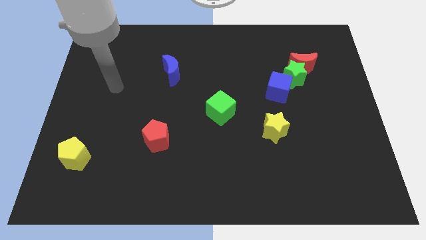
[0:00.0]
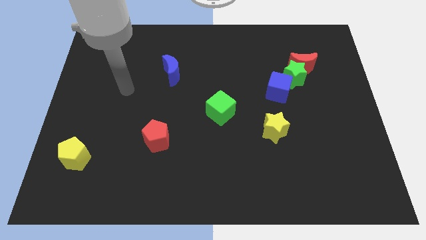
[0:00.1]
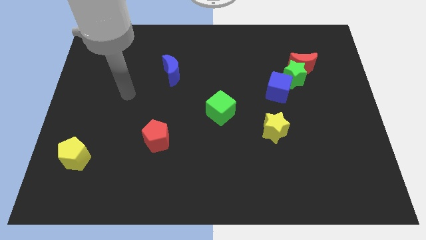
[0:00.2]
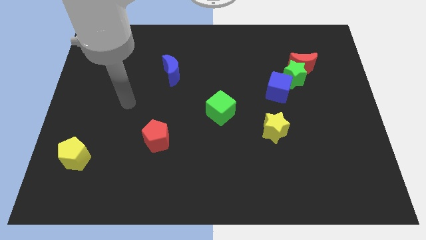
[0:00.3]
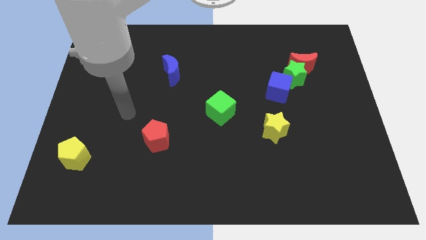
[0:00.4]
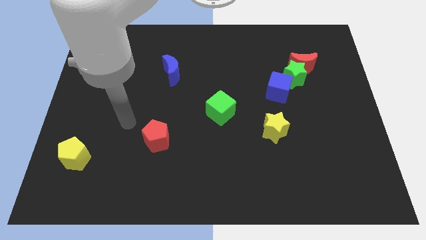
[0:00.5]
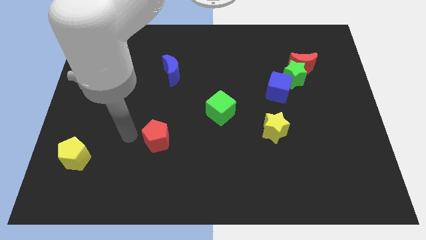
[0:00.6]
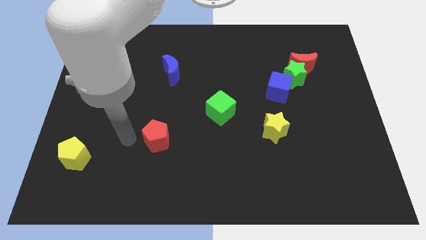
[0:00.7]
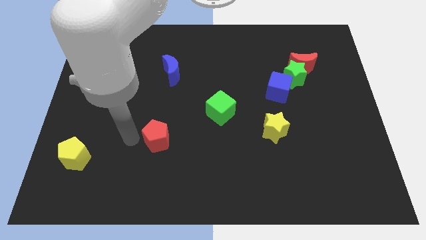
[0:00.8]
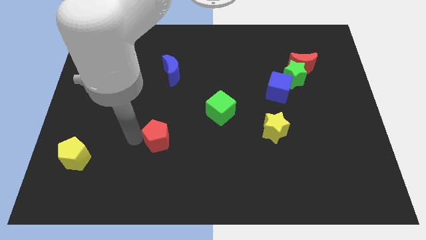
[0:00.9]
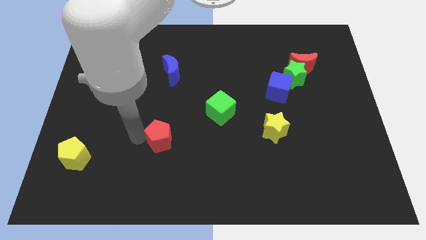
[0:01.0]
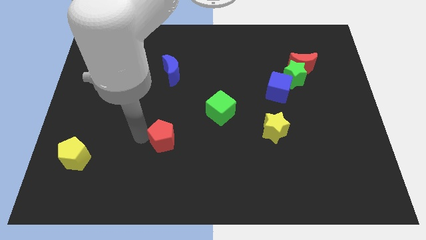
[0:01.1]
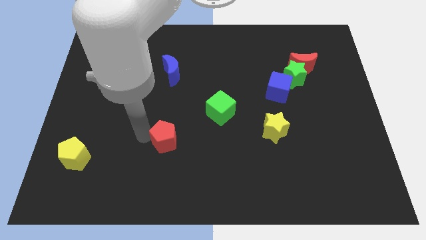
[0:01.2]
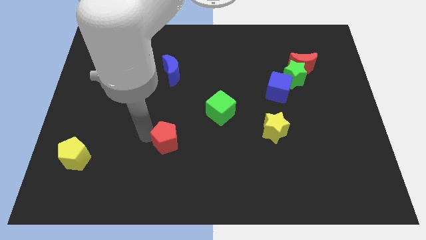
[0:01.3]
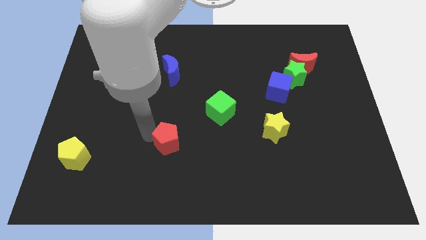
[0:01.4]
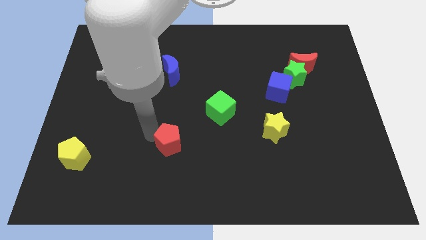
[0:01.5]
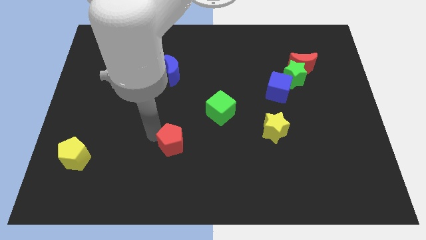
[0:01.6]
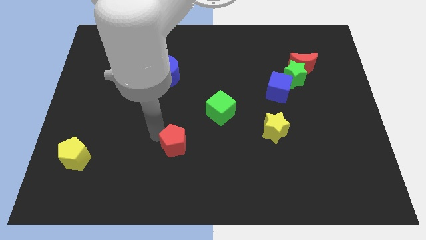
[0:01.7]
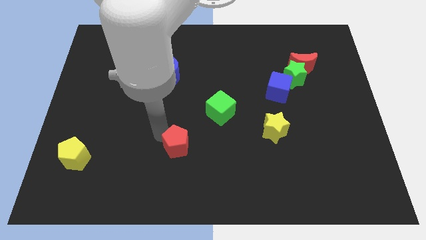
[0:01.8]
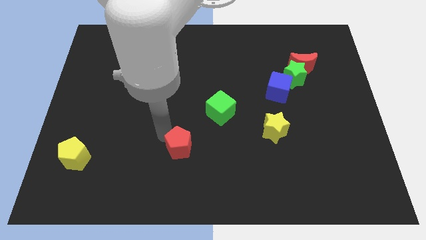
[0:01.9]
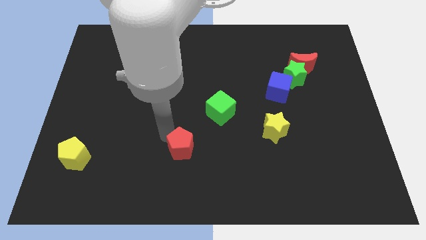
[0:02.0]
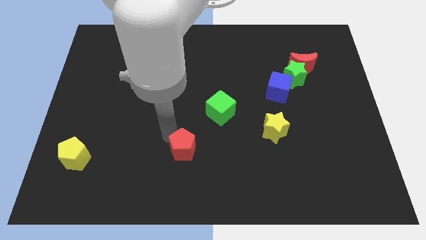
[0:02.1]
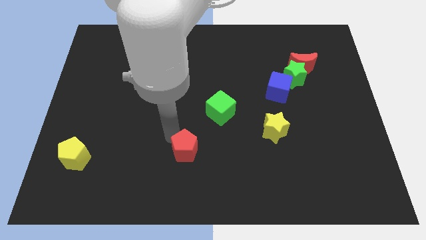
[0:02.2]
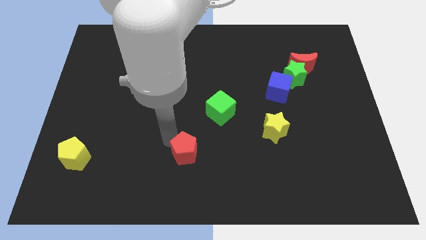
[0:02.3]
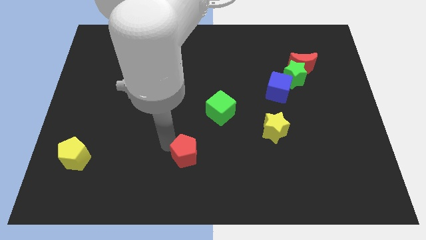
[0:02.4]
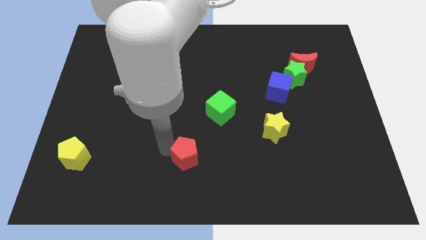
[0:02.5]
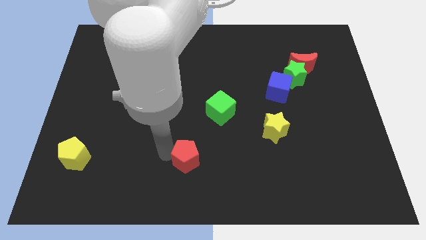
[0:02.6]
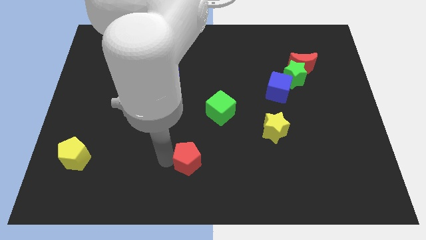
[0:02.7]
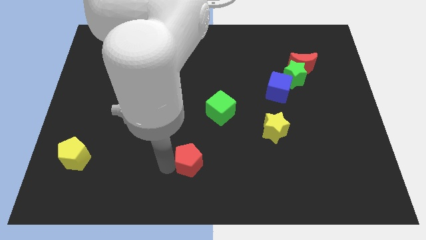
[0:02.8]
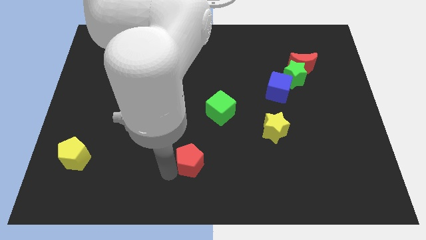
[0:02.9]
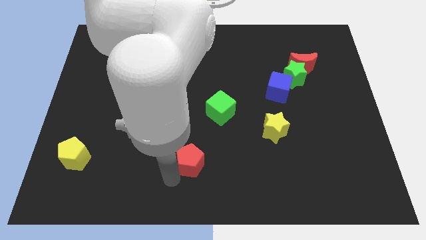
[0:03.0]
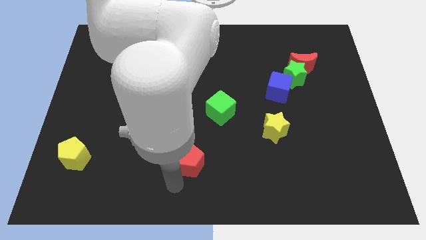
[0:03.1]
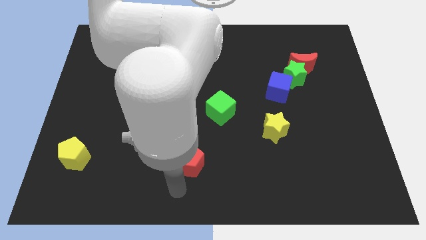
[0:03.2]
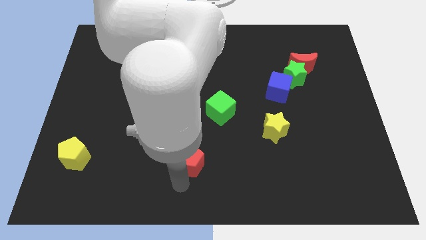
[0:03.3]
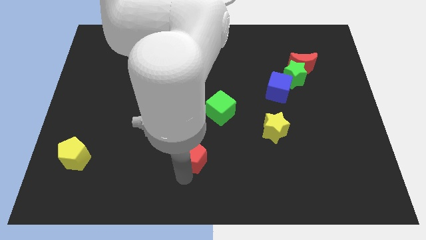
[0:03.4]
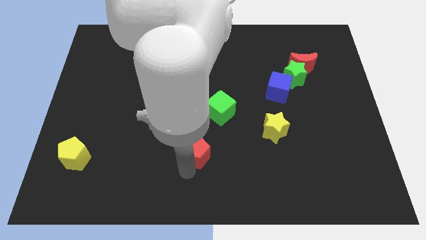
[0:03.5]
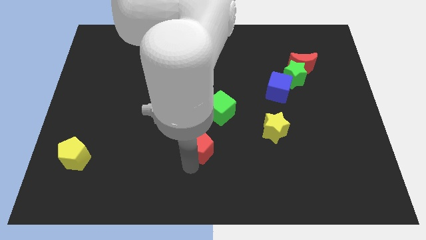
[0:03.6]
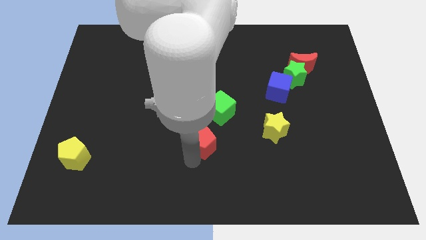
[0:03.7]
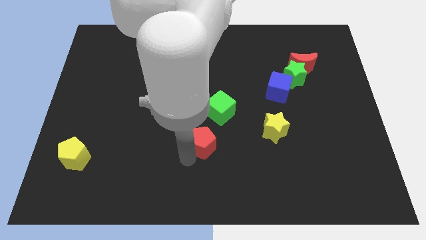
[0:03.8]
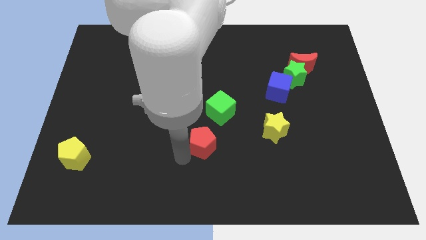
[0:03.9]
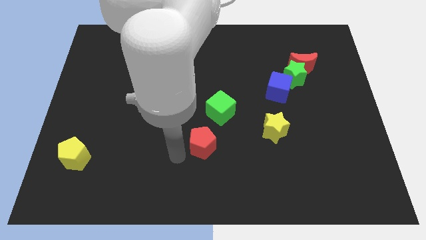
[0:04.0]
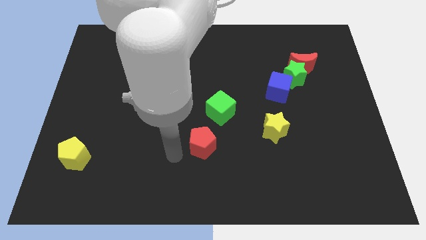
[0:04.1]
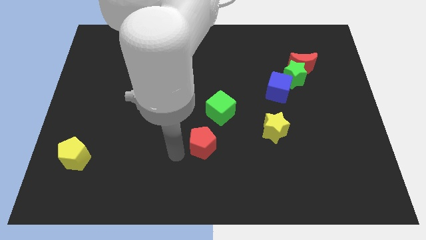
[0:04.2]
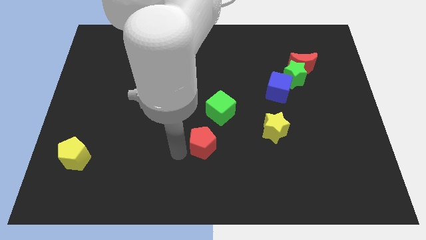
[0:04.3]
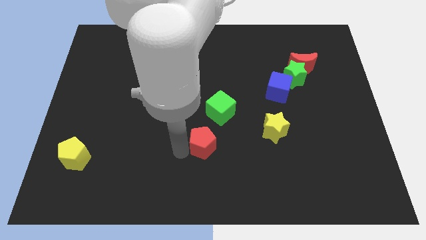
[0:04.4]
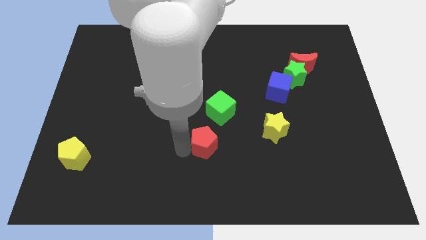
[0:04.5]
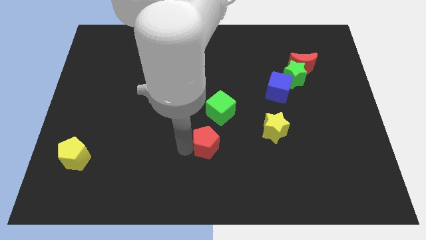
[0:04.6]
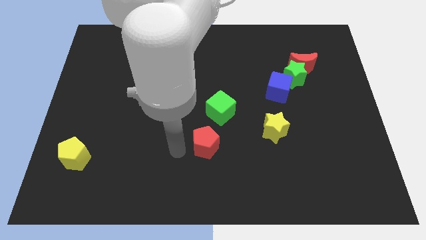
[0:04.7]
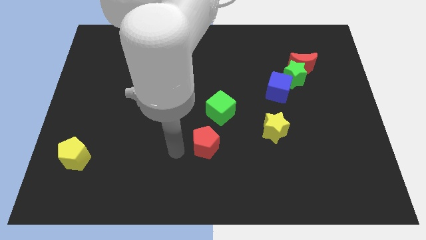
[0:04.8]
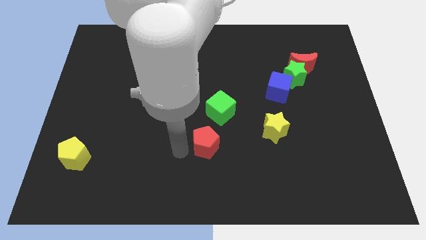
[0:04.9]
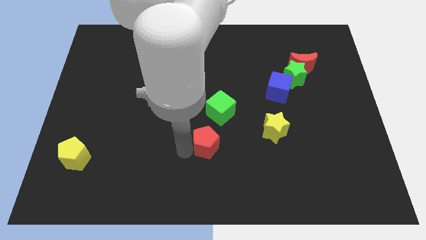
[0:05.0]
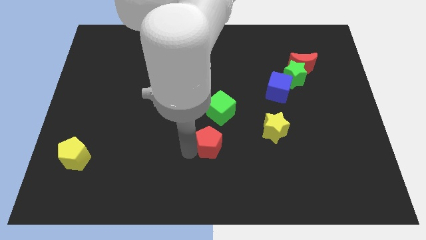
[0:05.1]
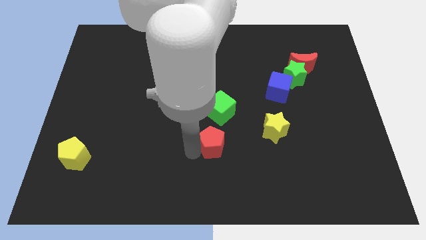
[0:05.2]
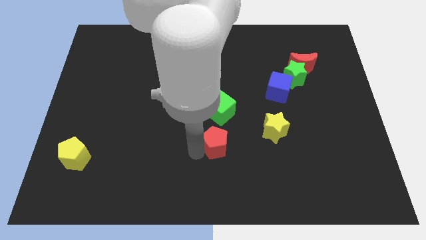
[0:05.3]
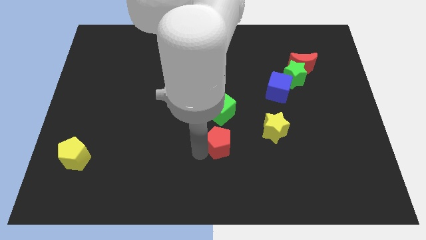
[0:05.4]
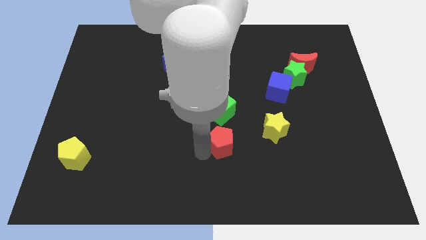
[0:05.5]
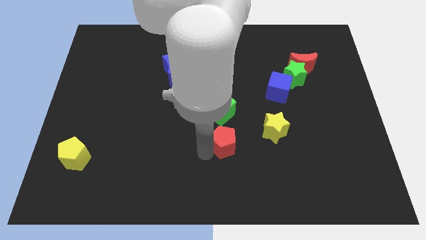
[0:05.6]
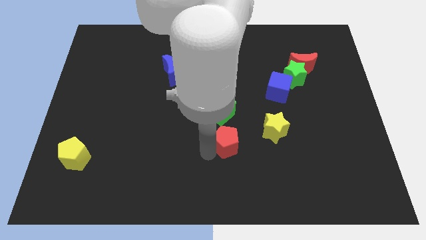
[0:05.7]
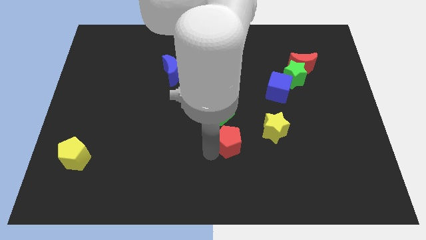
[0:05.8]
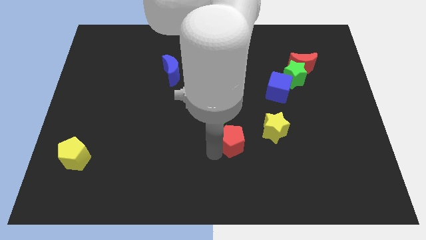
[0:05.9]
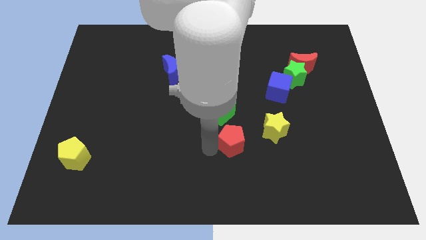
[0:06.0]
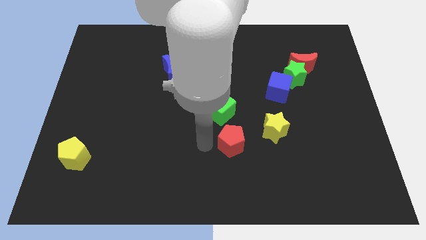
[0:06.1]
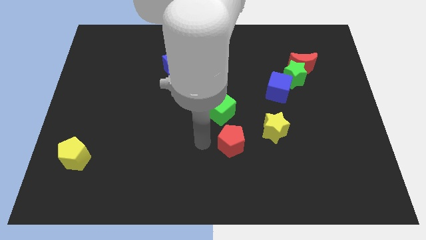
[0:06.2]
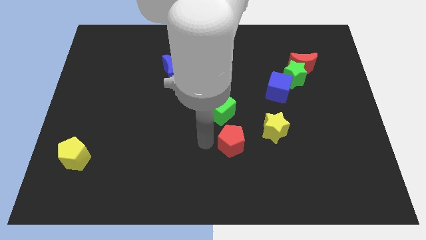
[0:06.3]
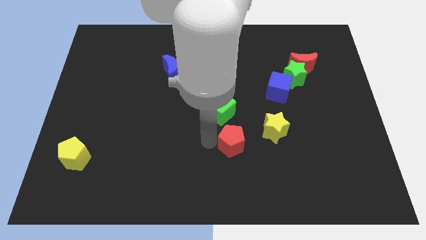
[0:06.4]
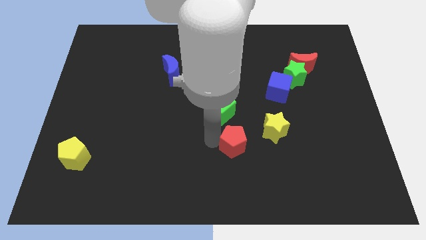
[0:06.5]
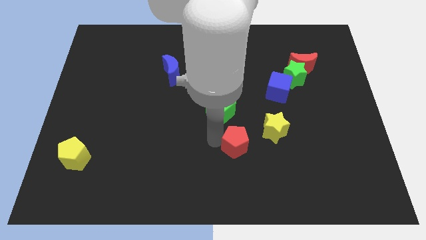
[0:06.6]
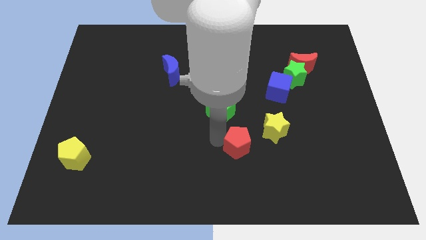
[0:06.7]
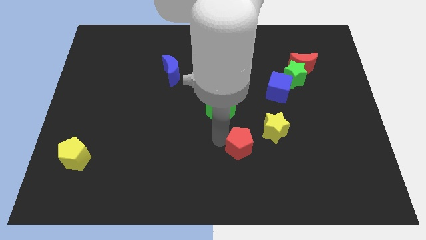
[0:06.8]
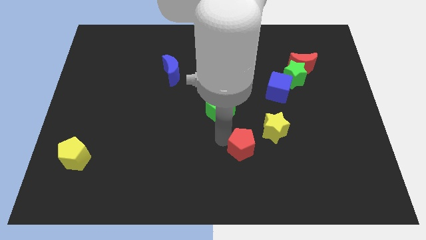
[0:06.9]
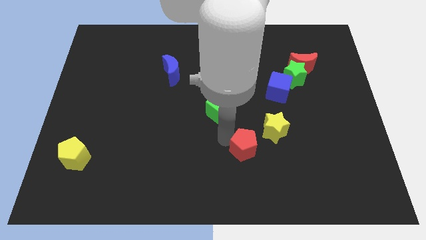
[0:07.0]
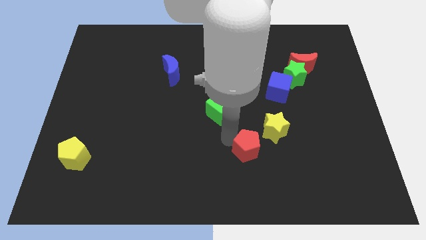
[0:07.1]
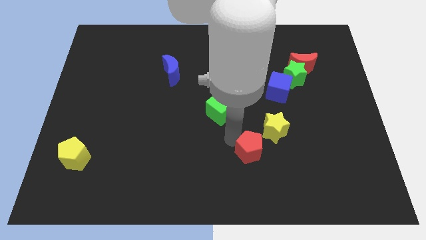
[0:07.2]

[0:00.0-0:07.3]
slide the red pentagon right

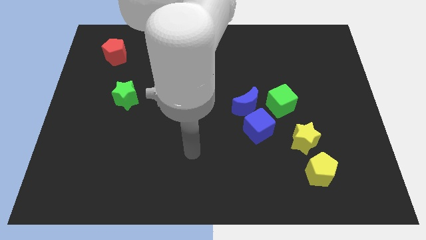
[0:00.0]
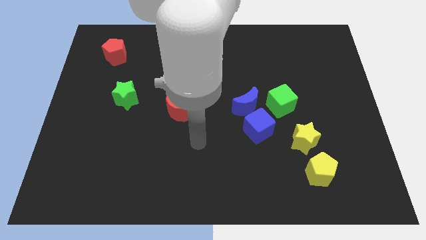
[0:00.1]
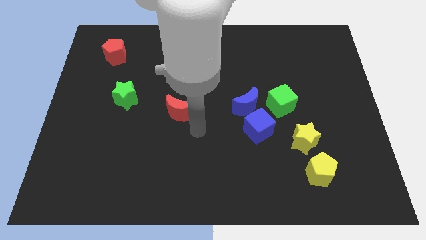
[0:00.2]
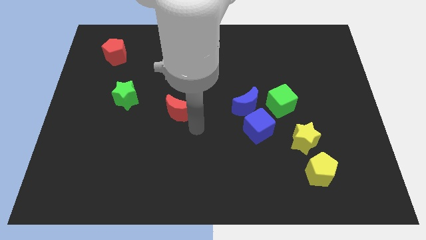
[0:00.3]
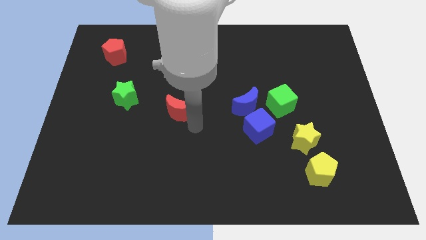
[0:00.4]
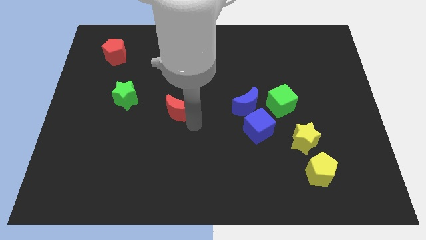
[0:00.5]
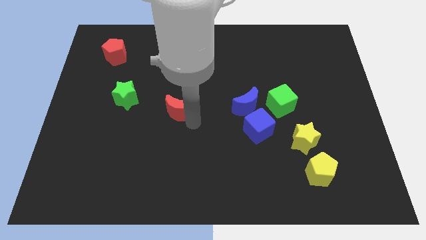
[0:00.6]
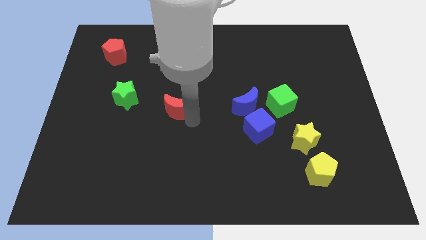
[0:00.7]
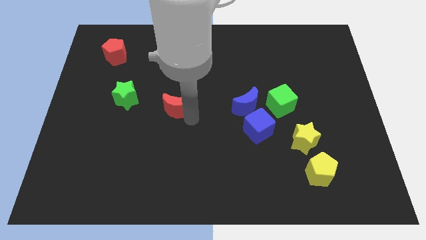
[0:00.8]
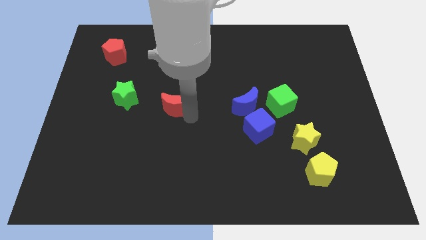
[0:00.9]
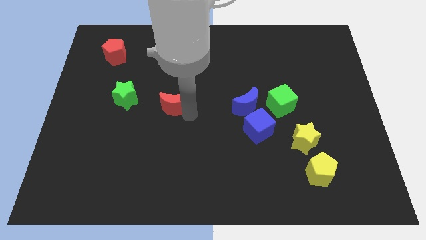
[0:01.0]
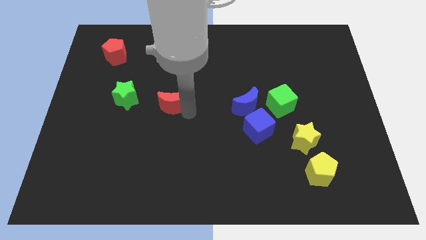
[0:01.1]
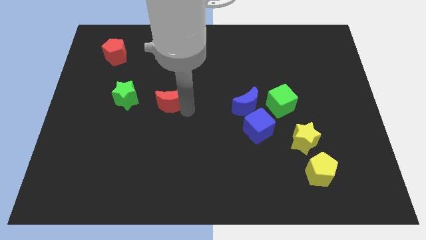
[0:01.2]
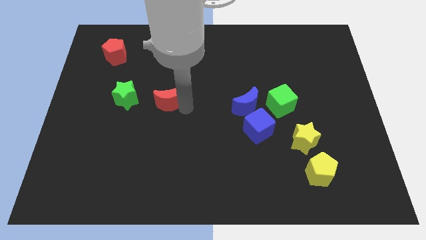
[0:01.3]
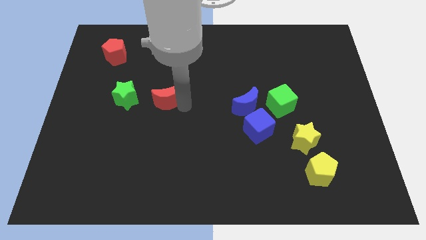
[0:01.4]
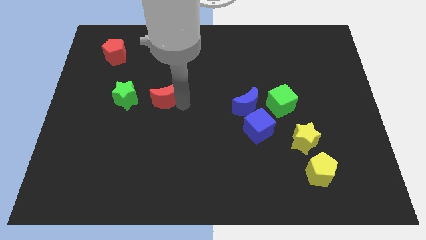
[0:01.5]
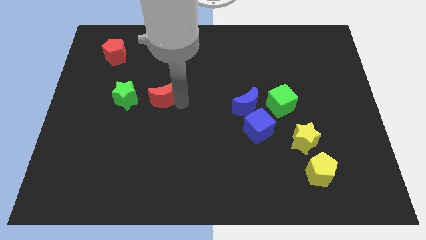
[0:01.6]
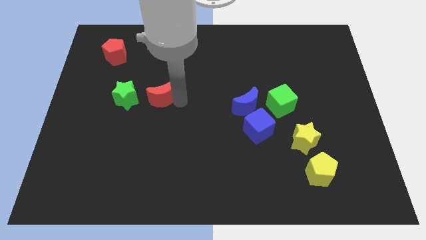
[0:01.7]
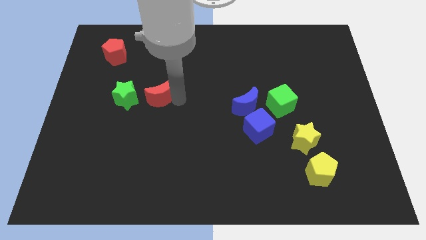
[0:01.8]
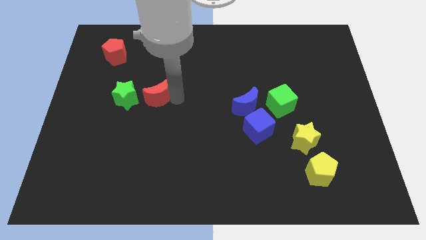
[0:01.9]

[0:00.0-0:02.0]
slide the red moon up and to the left a little bit
